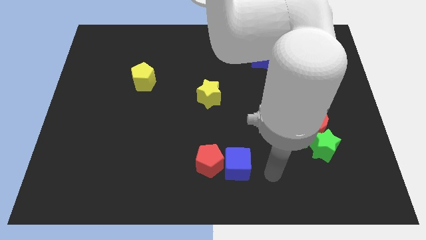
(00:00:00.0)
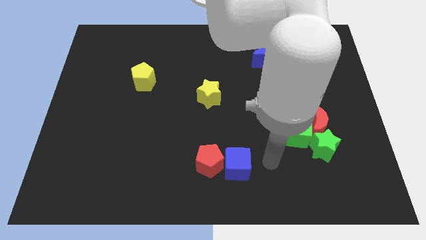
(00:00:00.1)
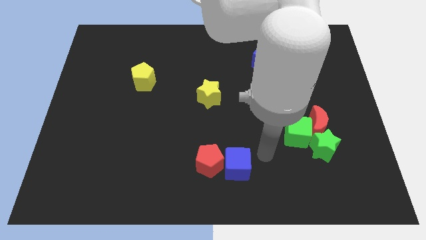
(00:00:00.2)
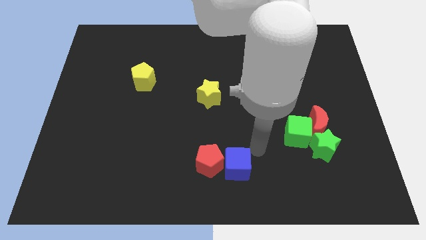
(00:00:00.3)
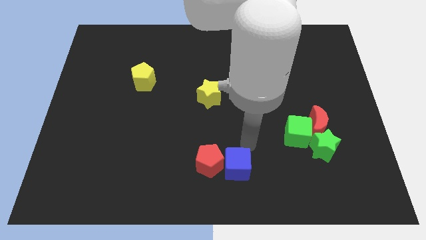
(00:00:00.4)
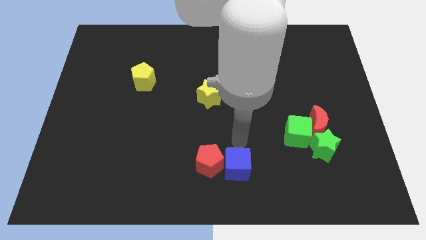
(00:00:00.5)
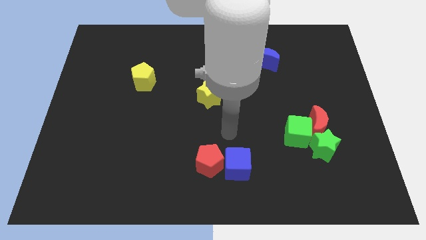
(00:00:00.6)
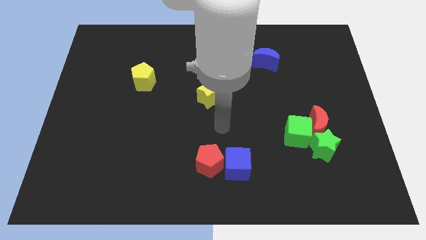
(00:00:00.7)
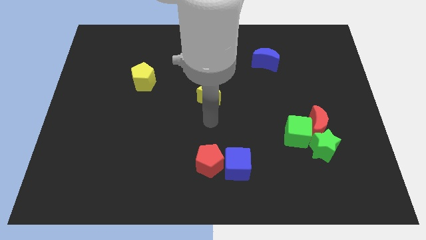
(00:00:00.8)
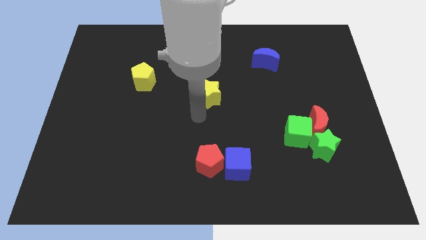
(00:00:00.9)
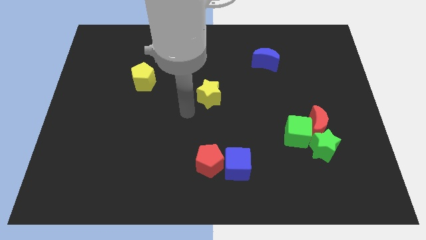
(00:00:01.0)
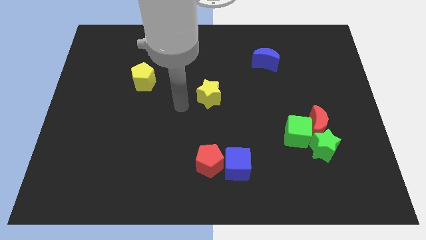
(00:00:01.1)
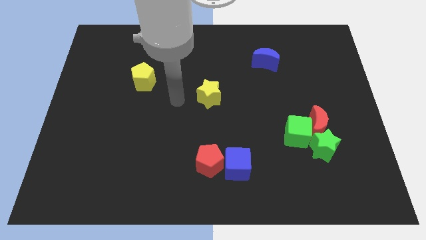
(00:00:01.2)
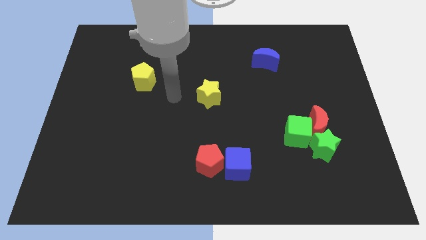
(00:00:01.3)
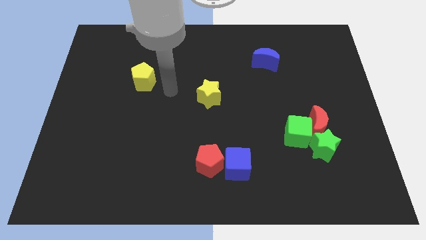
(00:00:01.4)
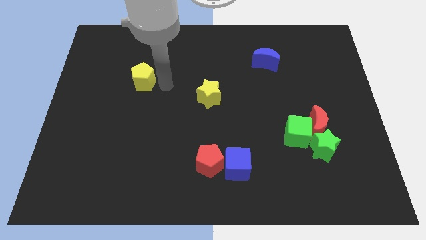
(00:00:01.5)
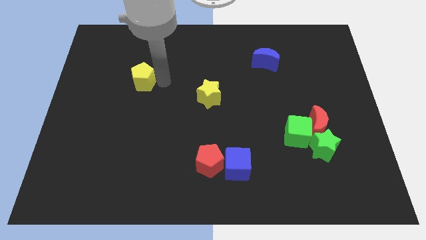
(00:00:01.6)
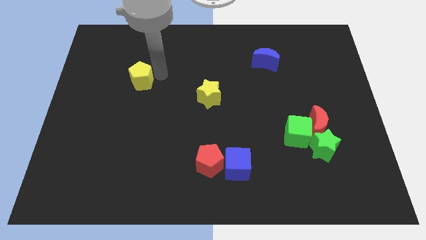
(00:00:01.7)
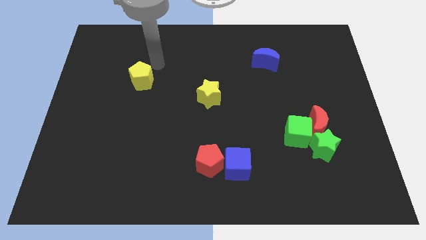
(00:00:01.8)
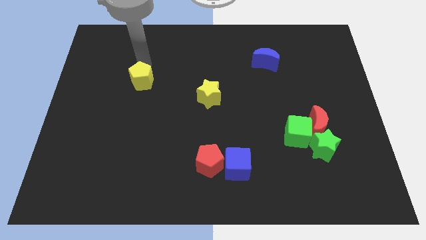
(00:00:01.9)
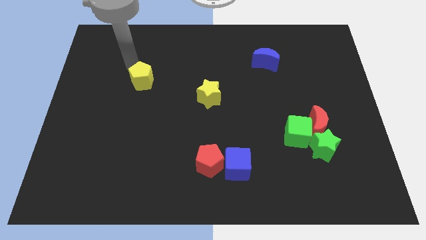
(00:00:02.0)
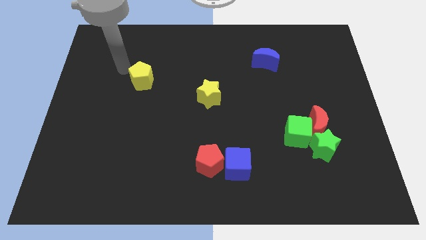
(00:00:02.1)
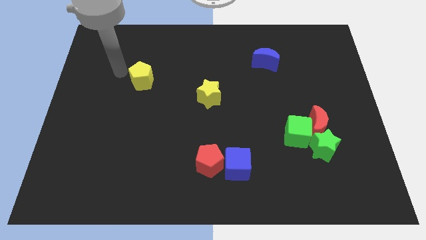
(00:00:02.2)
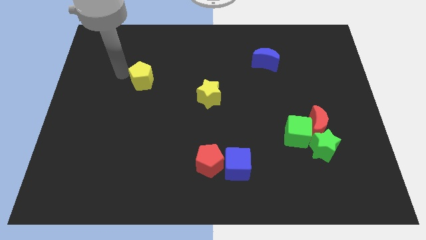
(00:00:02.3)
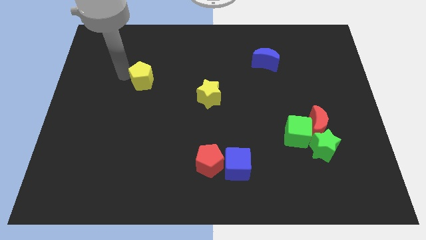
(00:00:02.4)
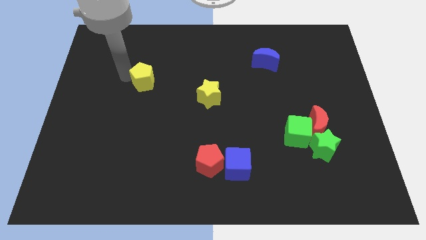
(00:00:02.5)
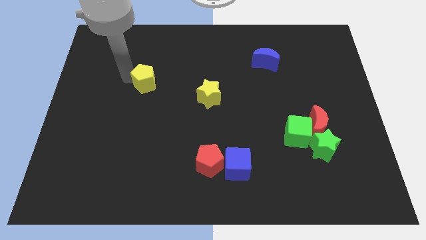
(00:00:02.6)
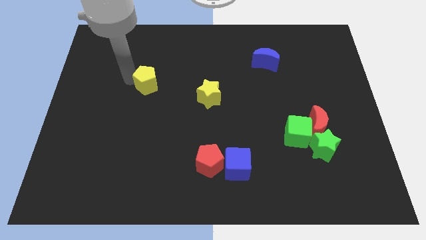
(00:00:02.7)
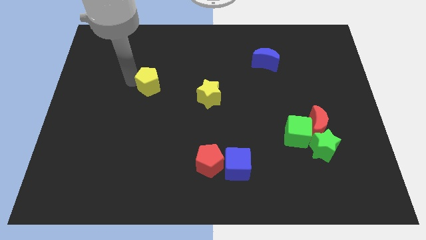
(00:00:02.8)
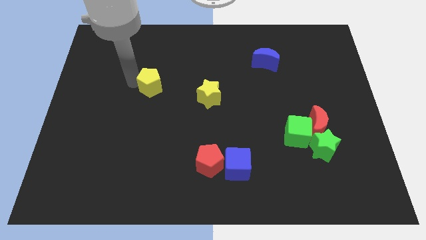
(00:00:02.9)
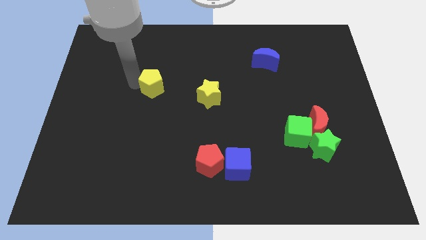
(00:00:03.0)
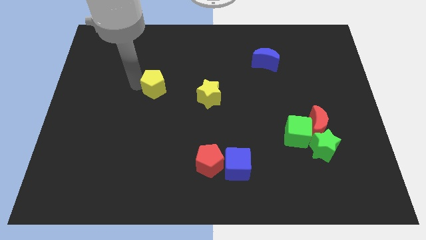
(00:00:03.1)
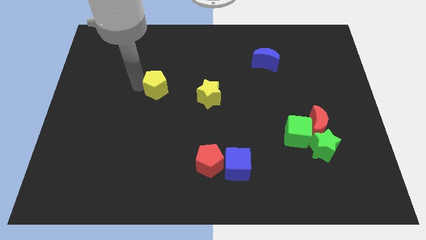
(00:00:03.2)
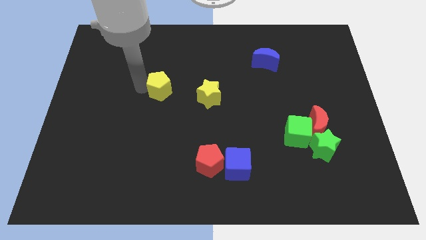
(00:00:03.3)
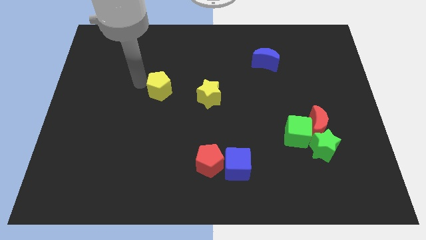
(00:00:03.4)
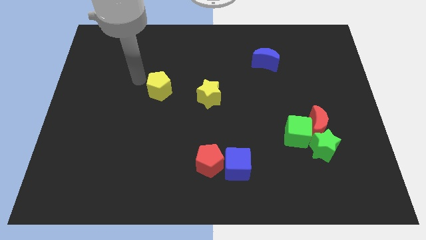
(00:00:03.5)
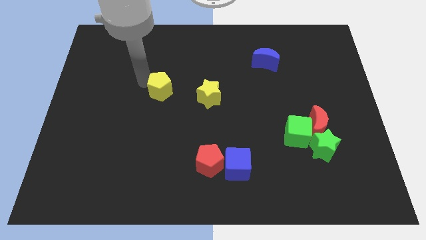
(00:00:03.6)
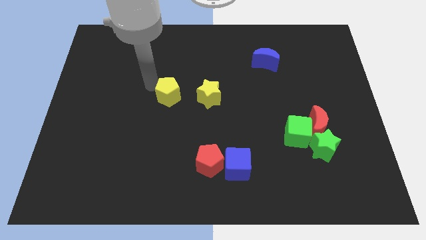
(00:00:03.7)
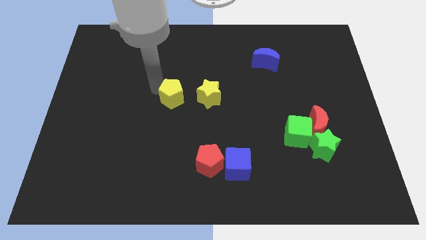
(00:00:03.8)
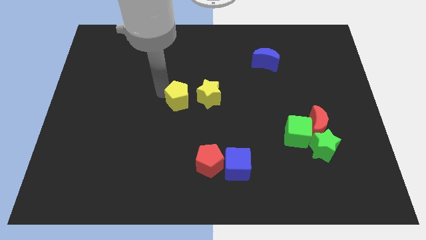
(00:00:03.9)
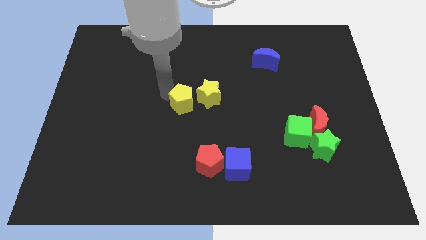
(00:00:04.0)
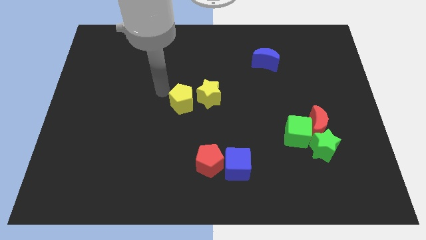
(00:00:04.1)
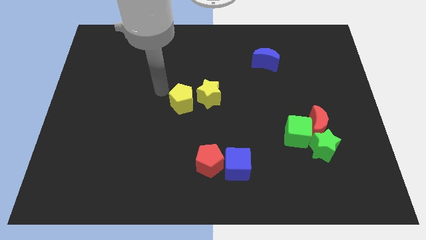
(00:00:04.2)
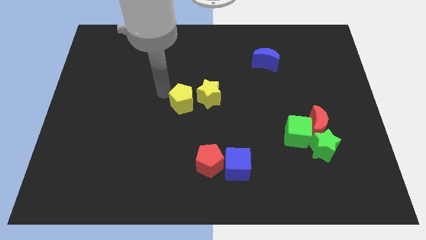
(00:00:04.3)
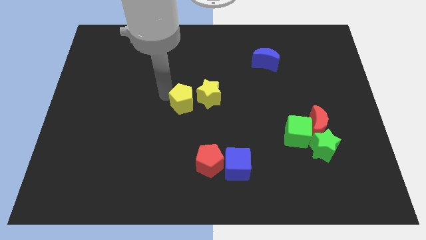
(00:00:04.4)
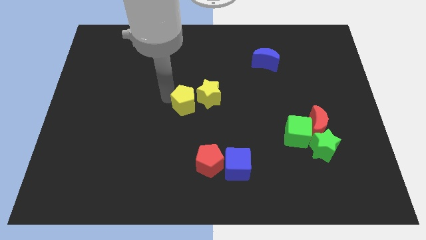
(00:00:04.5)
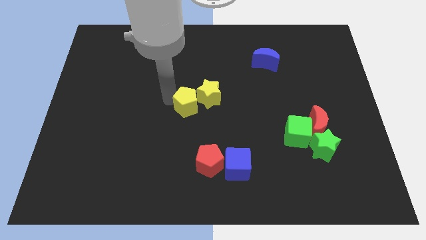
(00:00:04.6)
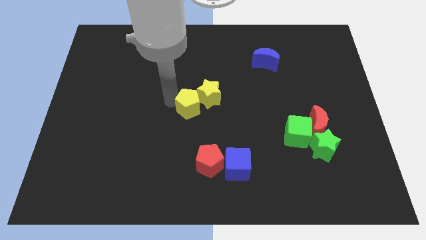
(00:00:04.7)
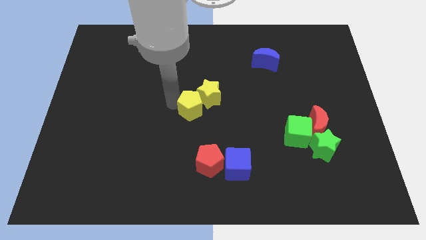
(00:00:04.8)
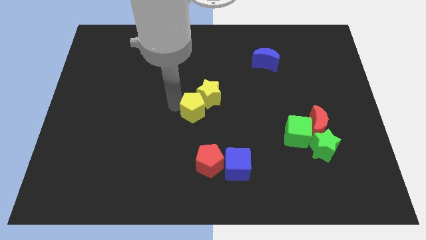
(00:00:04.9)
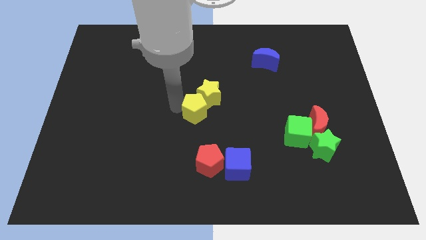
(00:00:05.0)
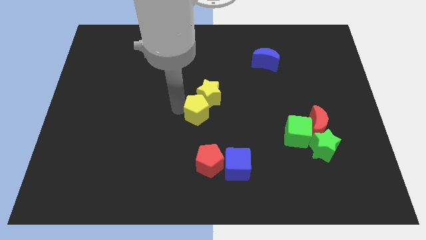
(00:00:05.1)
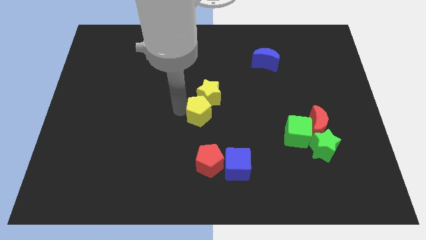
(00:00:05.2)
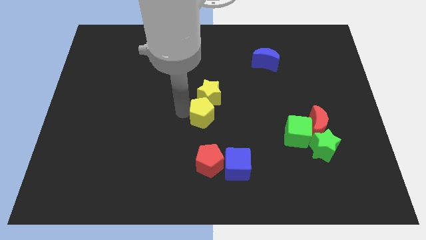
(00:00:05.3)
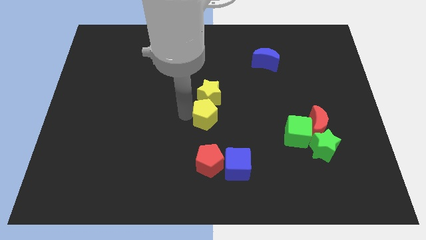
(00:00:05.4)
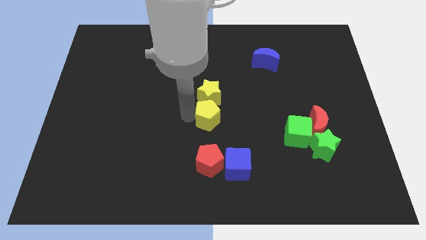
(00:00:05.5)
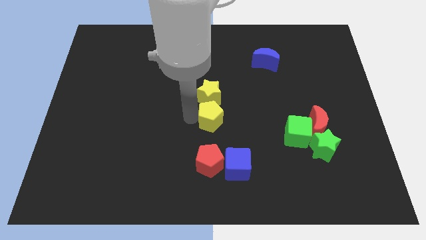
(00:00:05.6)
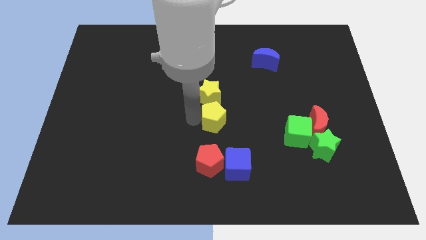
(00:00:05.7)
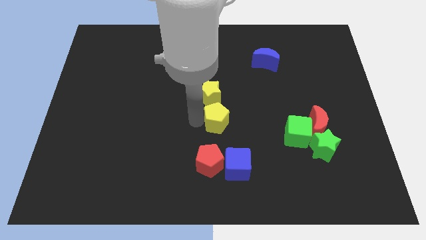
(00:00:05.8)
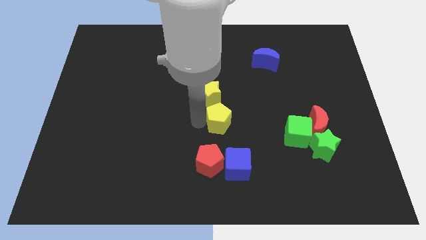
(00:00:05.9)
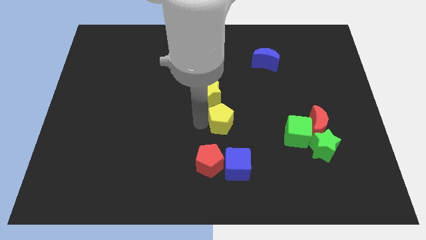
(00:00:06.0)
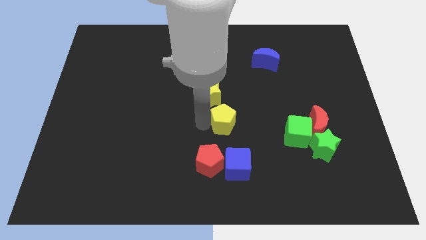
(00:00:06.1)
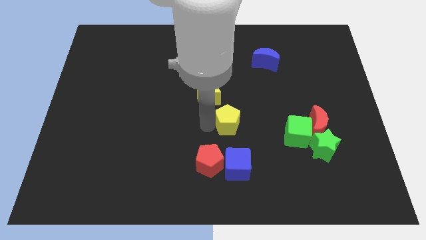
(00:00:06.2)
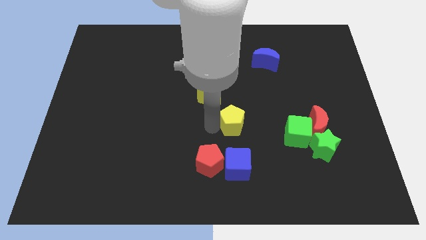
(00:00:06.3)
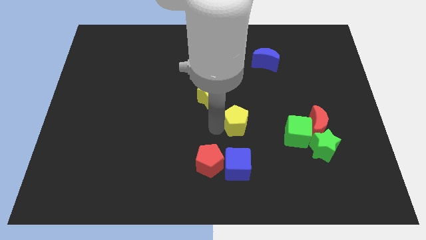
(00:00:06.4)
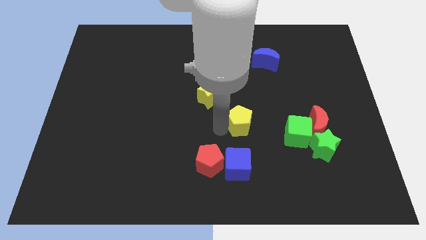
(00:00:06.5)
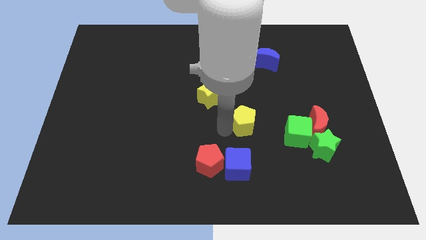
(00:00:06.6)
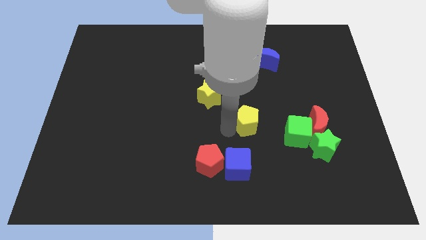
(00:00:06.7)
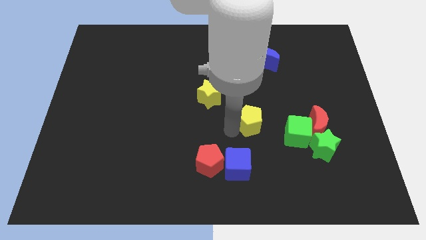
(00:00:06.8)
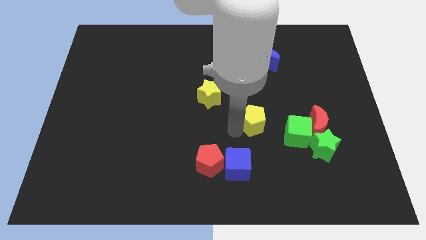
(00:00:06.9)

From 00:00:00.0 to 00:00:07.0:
move the yellow pentagon to the top left side of the green cube
